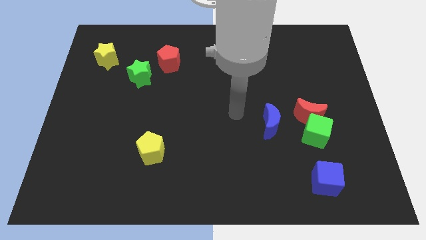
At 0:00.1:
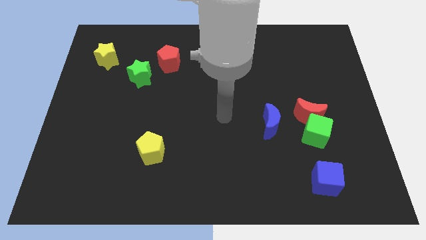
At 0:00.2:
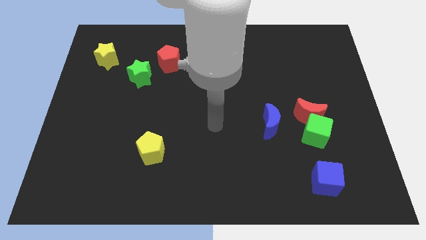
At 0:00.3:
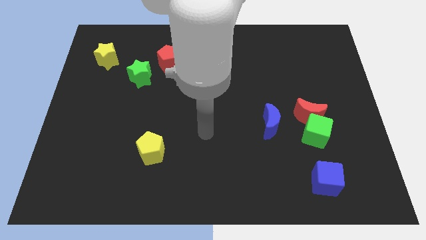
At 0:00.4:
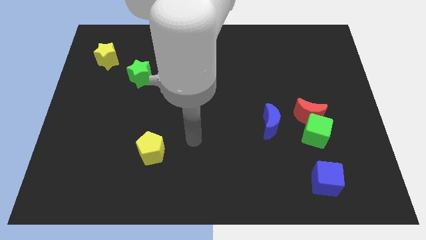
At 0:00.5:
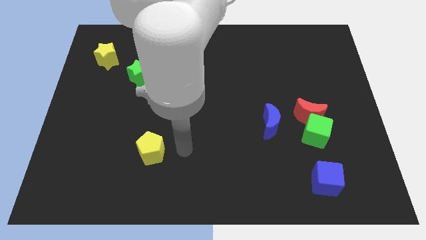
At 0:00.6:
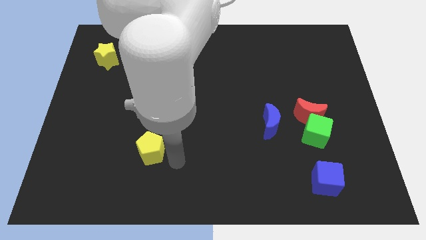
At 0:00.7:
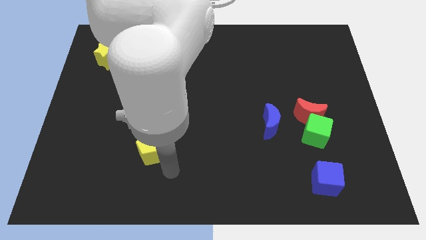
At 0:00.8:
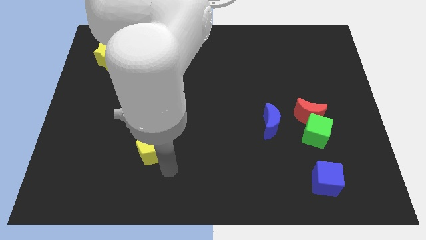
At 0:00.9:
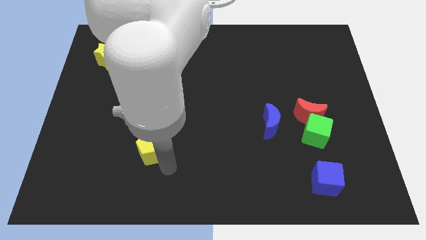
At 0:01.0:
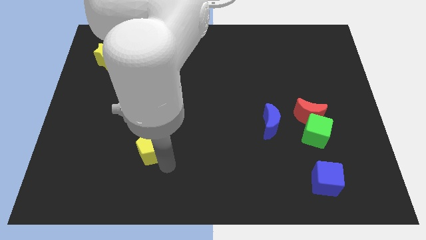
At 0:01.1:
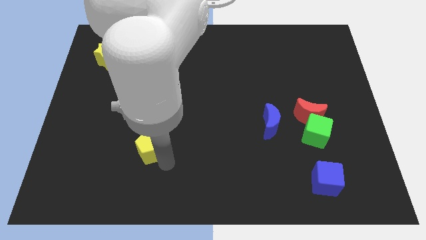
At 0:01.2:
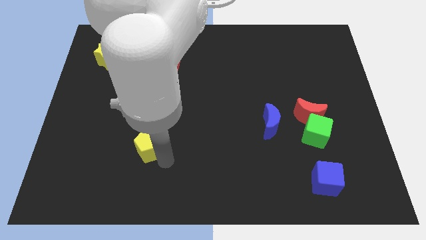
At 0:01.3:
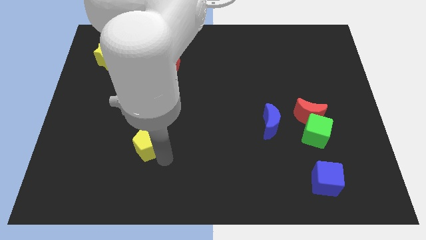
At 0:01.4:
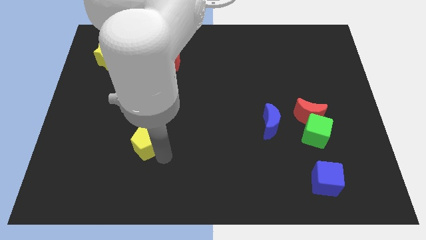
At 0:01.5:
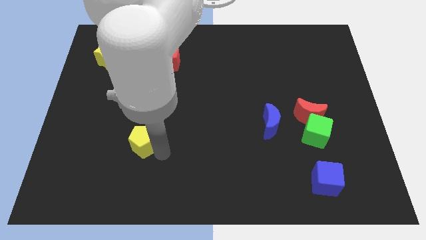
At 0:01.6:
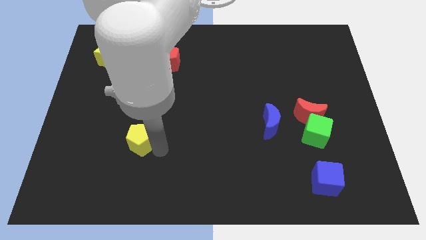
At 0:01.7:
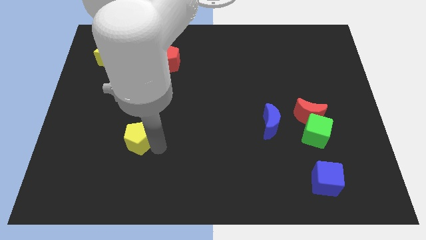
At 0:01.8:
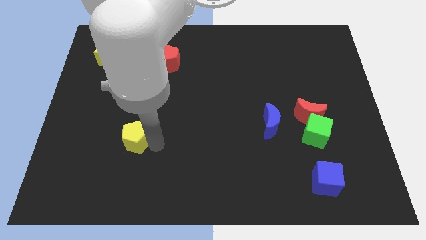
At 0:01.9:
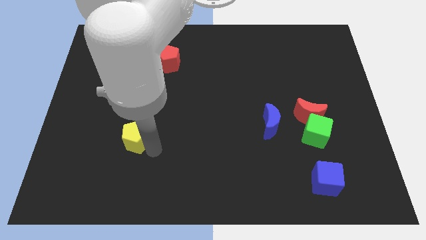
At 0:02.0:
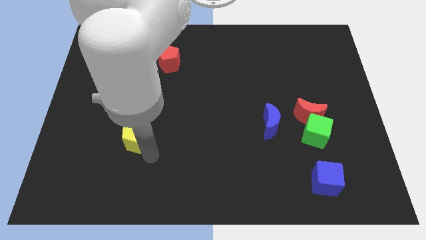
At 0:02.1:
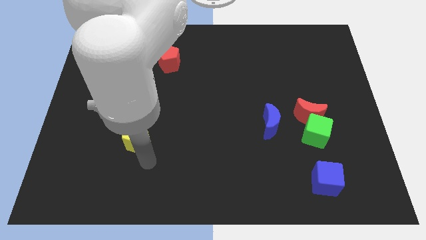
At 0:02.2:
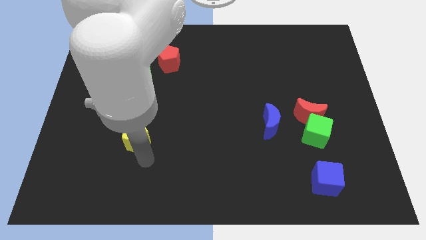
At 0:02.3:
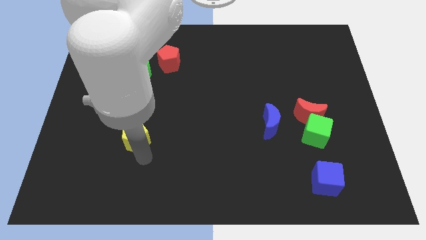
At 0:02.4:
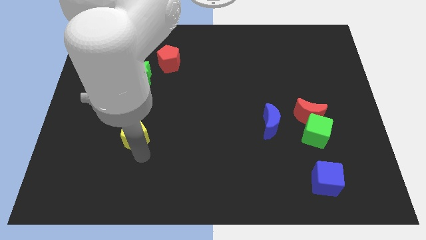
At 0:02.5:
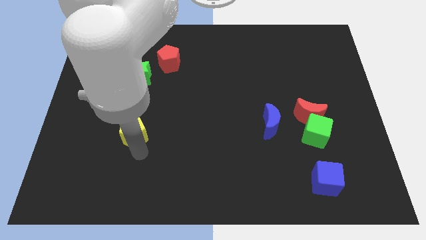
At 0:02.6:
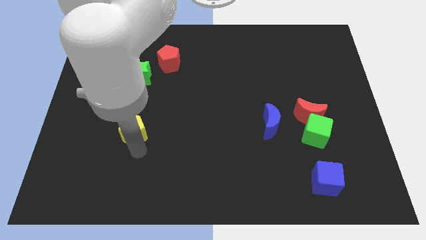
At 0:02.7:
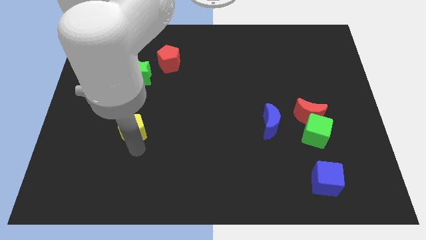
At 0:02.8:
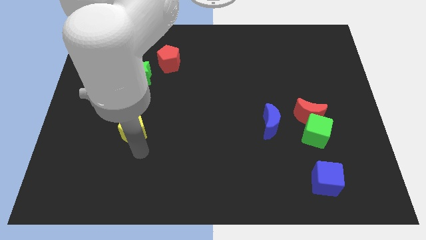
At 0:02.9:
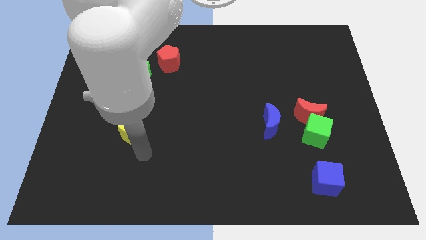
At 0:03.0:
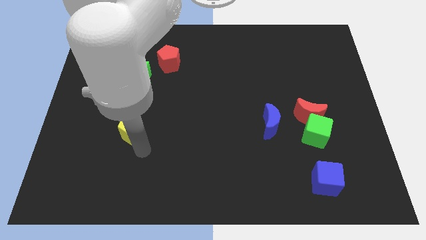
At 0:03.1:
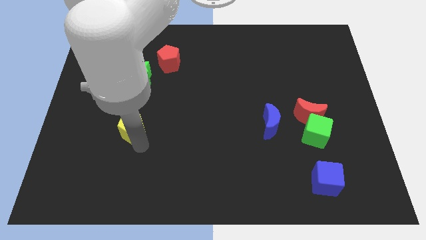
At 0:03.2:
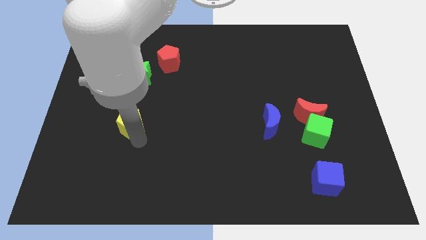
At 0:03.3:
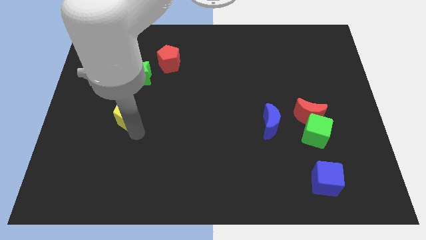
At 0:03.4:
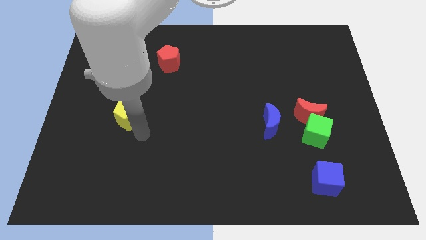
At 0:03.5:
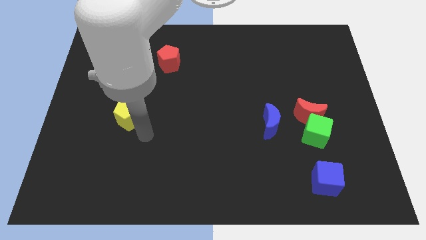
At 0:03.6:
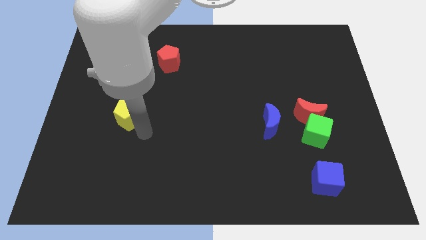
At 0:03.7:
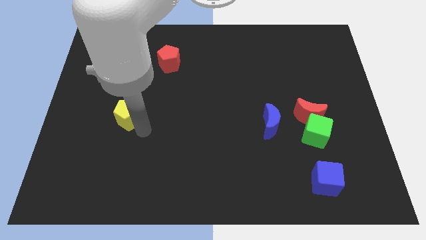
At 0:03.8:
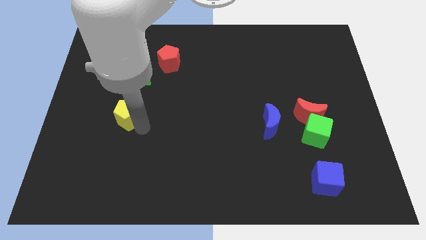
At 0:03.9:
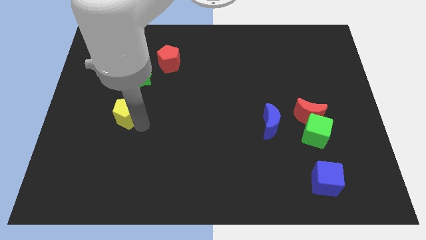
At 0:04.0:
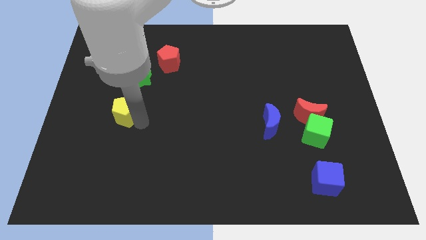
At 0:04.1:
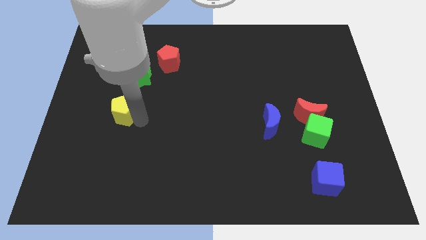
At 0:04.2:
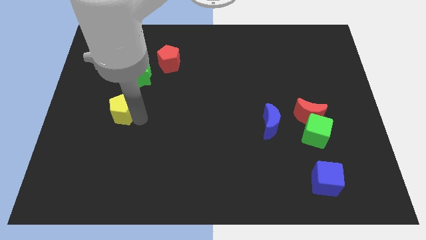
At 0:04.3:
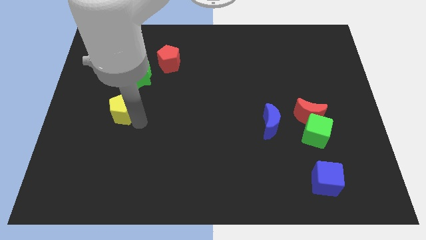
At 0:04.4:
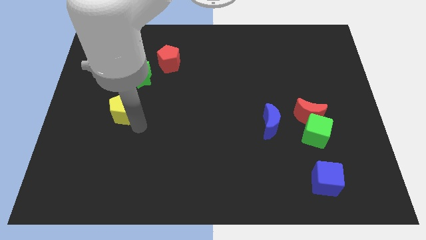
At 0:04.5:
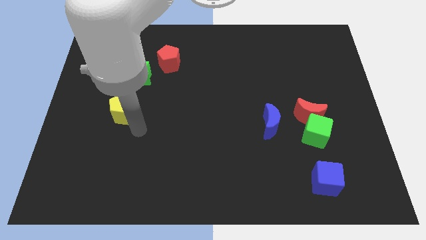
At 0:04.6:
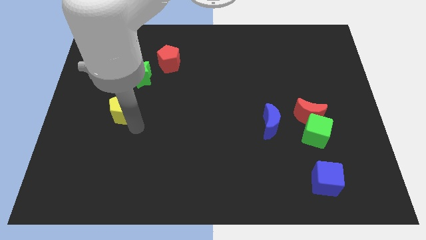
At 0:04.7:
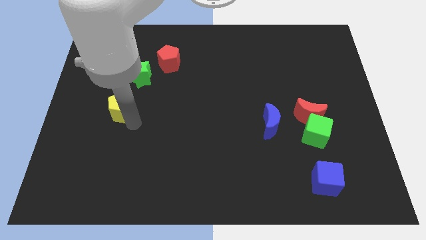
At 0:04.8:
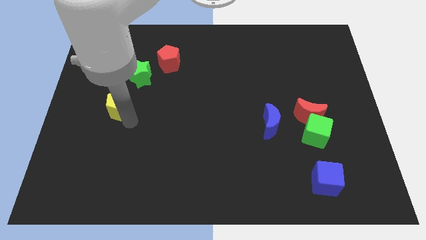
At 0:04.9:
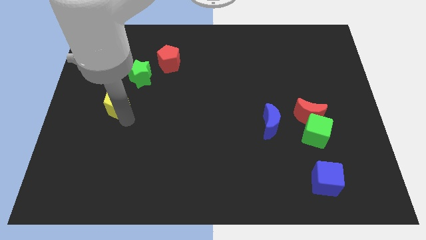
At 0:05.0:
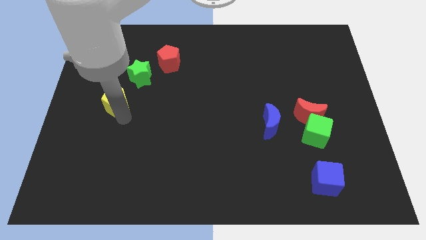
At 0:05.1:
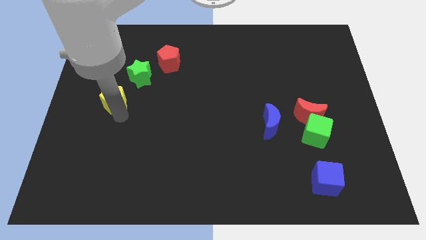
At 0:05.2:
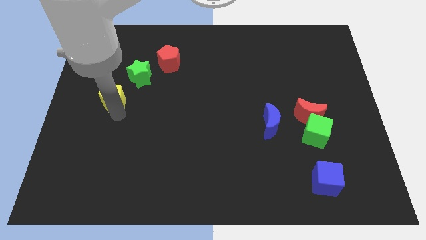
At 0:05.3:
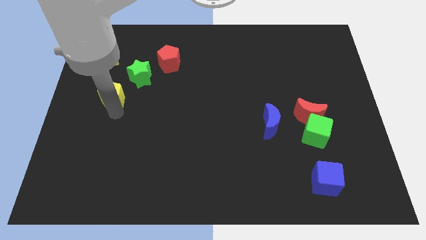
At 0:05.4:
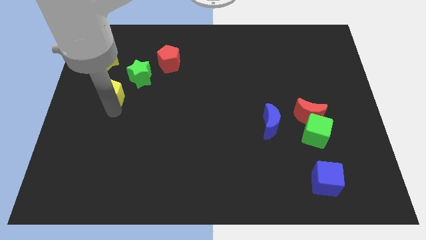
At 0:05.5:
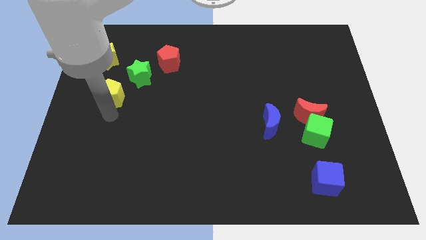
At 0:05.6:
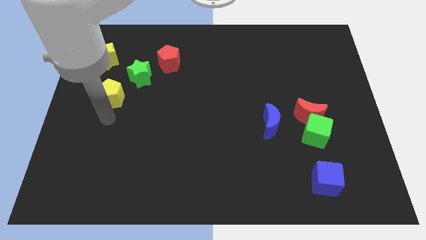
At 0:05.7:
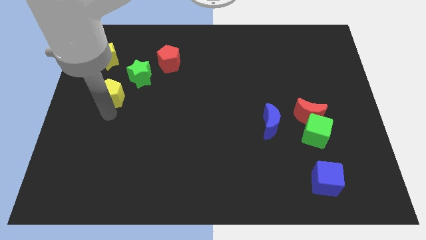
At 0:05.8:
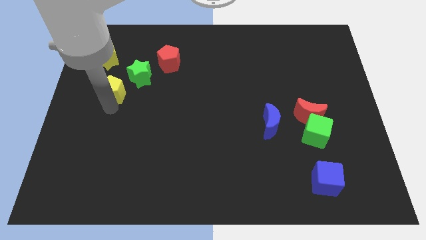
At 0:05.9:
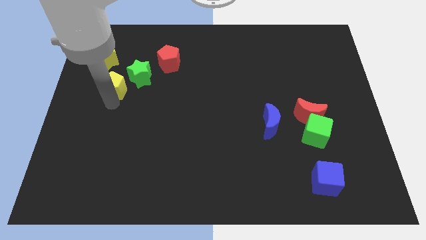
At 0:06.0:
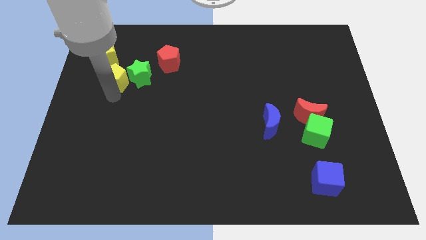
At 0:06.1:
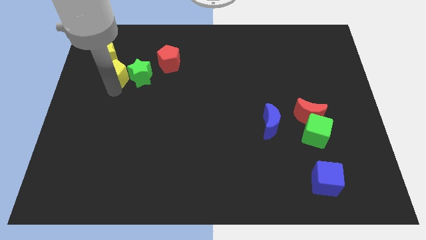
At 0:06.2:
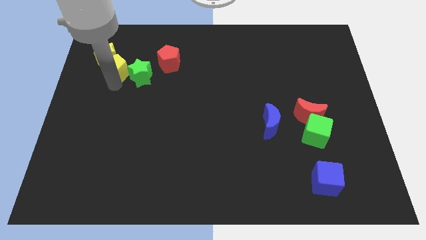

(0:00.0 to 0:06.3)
move the yellow pentagon to the left of the red pentagon

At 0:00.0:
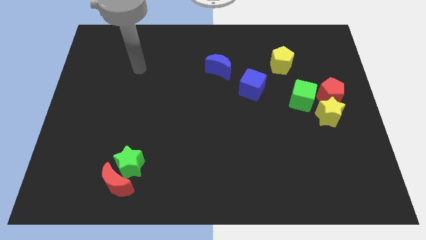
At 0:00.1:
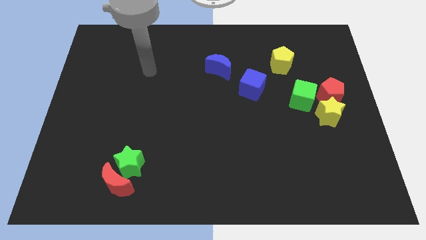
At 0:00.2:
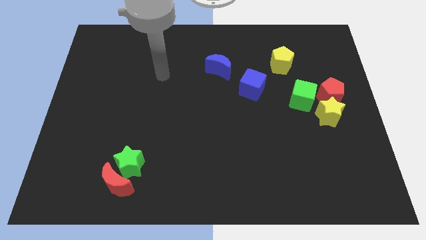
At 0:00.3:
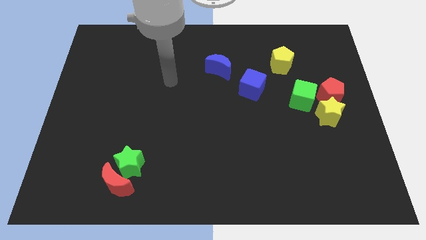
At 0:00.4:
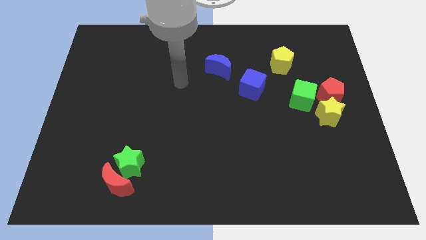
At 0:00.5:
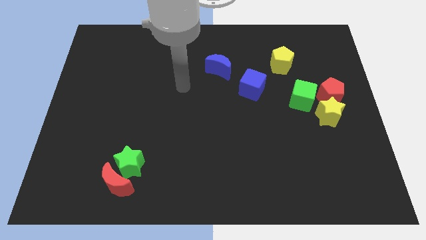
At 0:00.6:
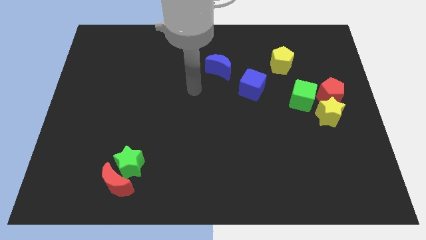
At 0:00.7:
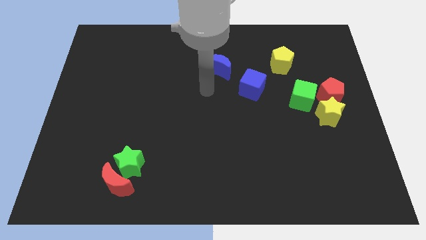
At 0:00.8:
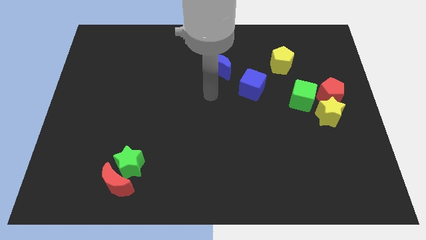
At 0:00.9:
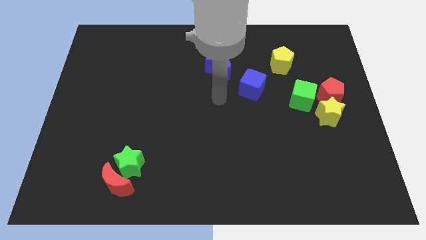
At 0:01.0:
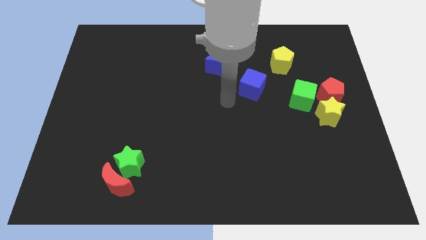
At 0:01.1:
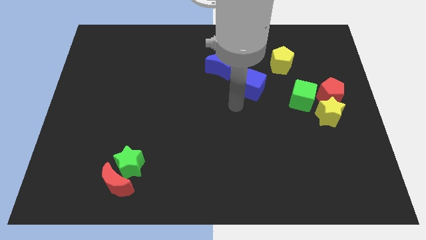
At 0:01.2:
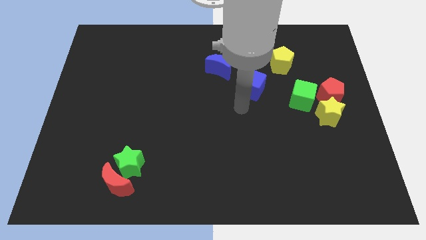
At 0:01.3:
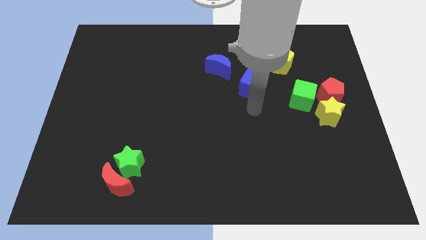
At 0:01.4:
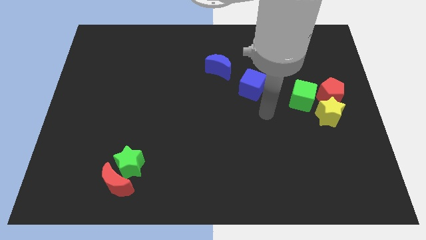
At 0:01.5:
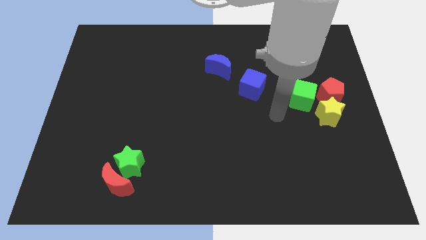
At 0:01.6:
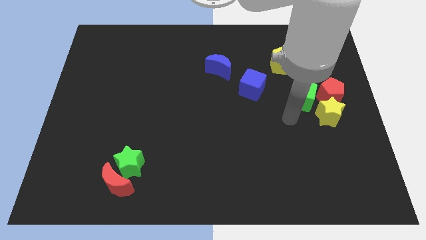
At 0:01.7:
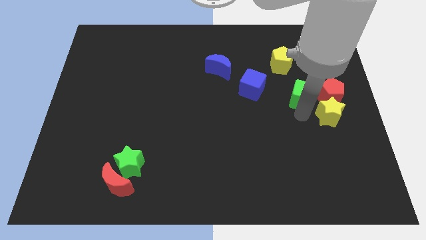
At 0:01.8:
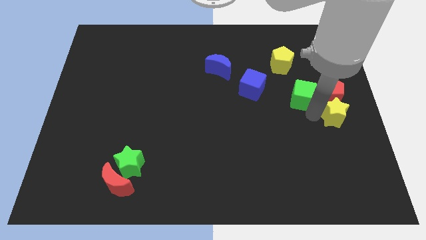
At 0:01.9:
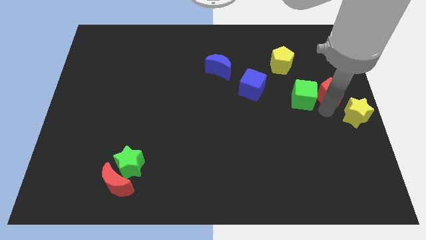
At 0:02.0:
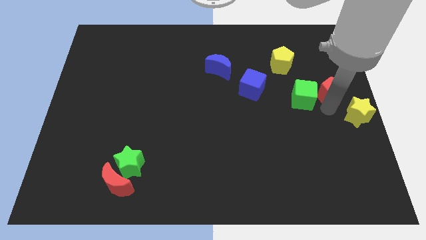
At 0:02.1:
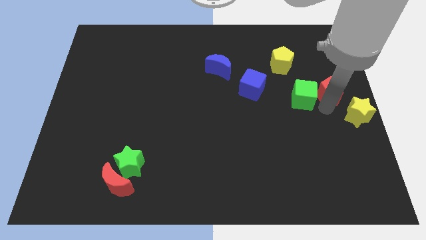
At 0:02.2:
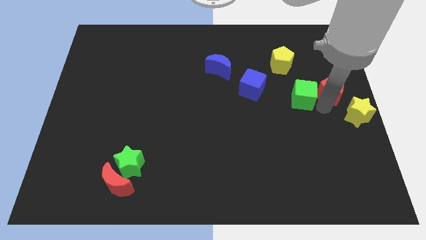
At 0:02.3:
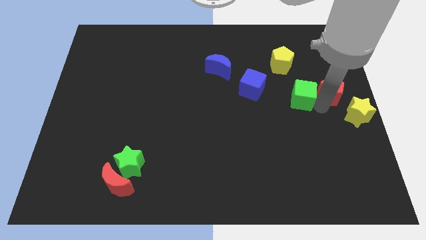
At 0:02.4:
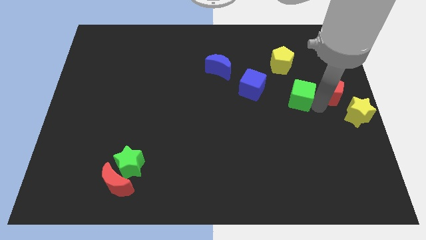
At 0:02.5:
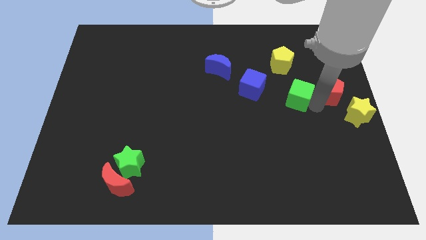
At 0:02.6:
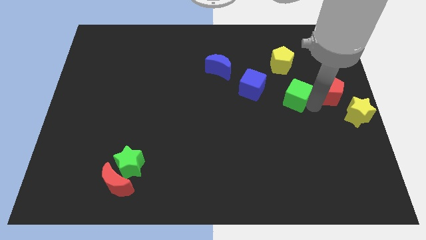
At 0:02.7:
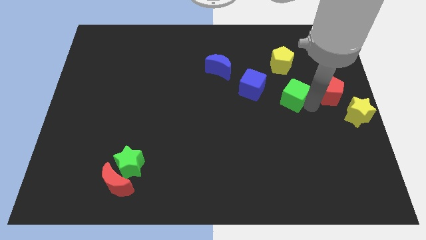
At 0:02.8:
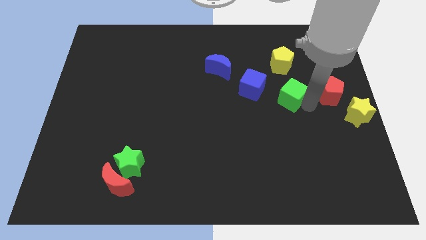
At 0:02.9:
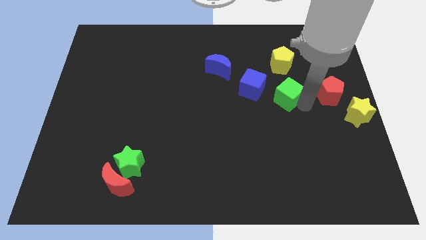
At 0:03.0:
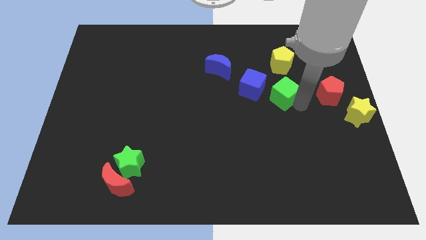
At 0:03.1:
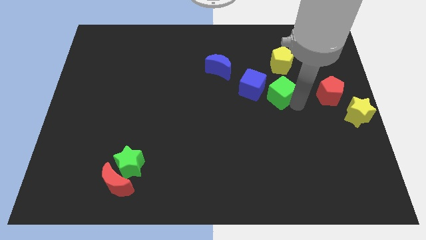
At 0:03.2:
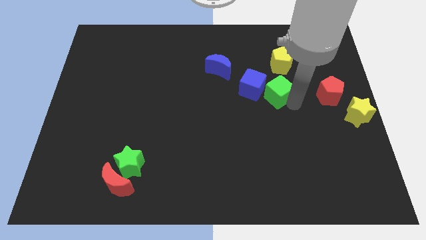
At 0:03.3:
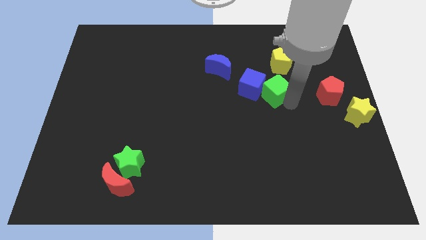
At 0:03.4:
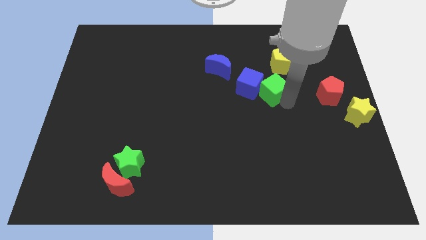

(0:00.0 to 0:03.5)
push the green cube to the bottom left side of the yellow pentagon
